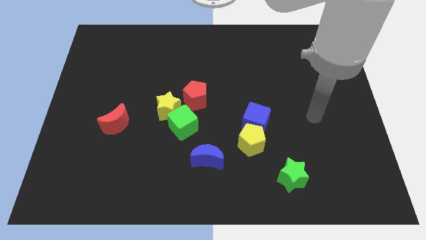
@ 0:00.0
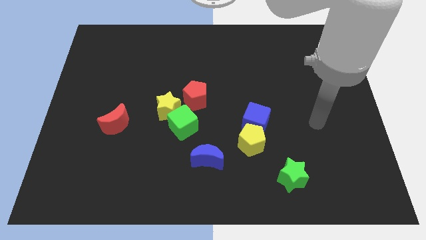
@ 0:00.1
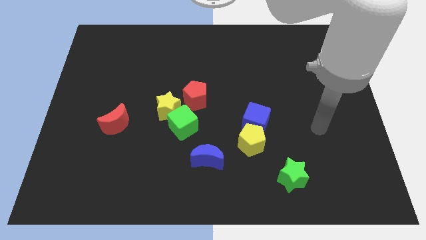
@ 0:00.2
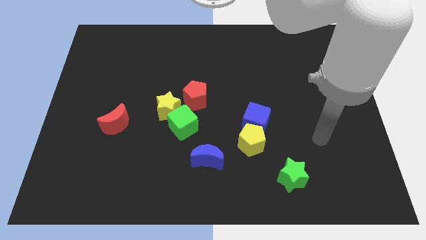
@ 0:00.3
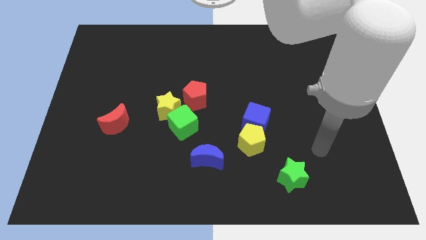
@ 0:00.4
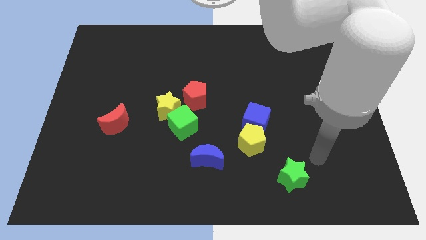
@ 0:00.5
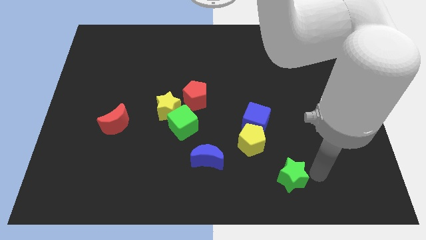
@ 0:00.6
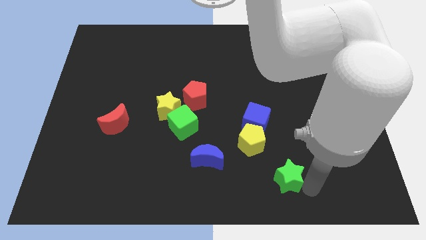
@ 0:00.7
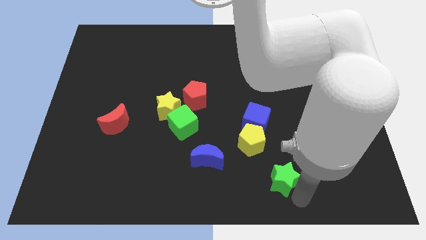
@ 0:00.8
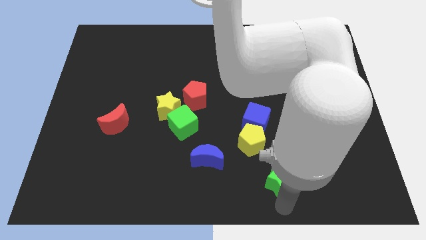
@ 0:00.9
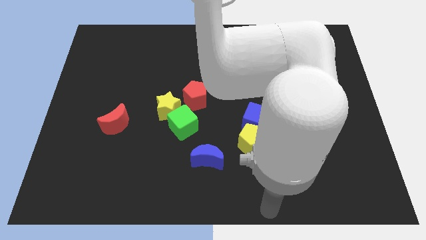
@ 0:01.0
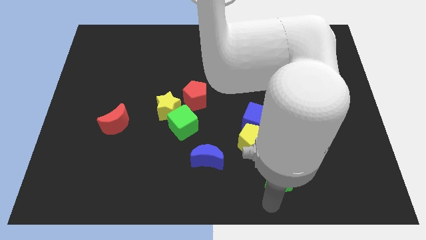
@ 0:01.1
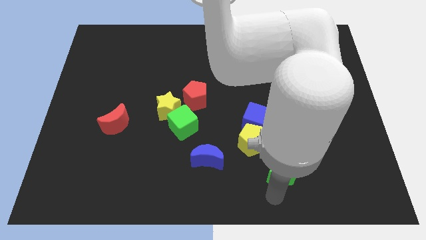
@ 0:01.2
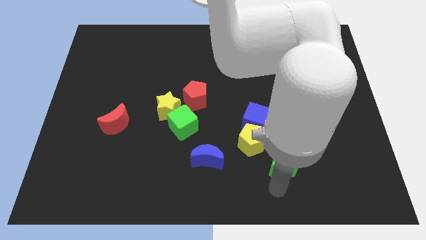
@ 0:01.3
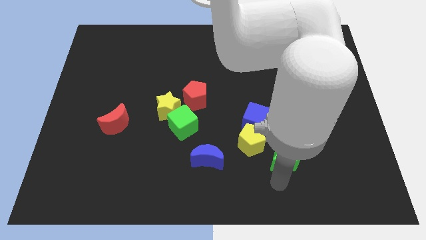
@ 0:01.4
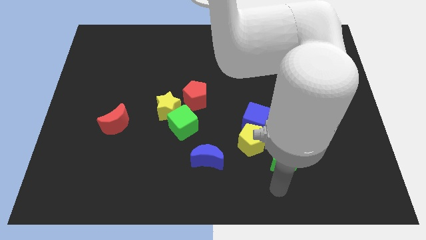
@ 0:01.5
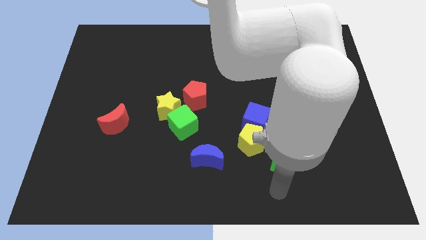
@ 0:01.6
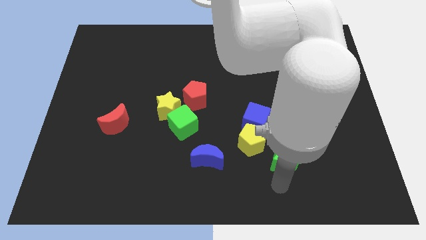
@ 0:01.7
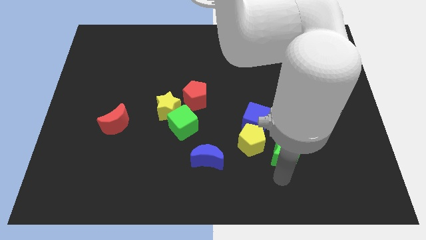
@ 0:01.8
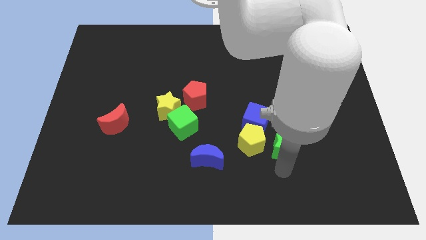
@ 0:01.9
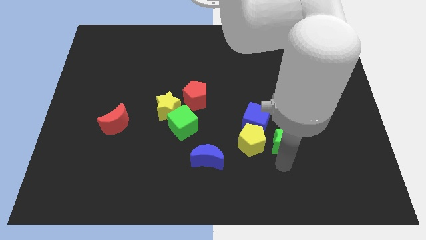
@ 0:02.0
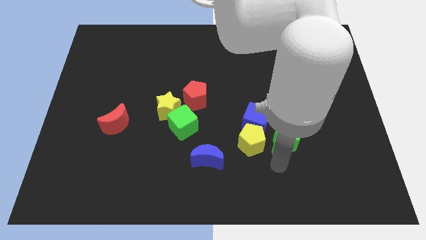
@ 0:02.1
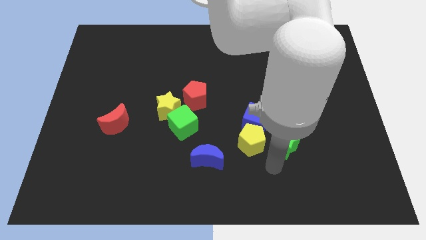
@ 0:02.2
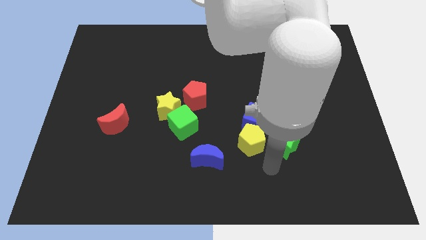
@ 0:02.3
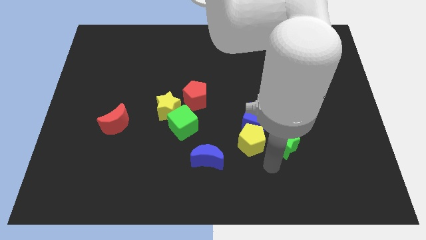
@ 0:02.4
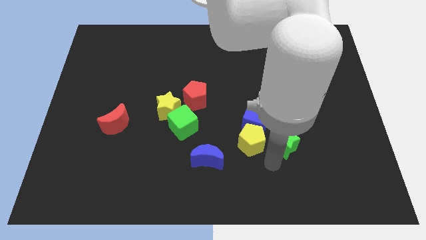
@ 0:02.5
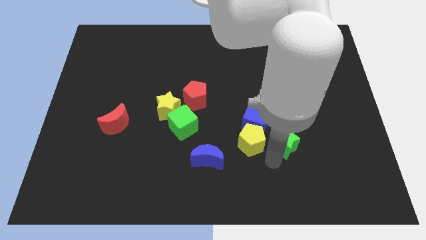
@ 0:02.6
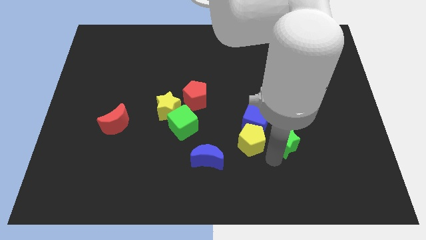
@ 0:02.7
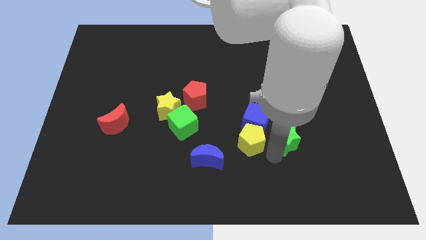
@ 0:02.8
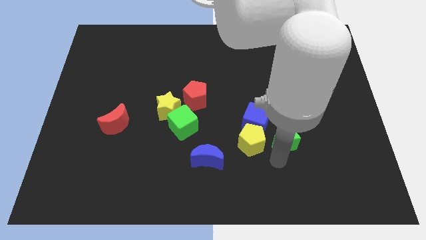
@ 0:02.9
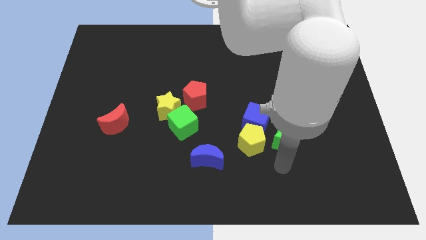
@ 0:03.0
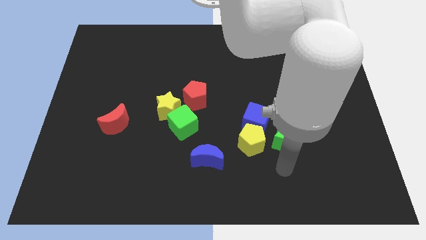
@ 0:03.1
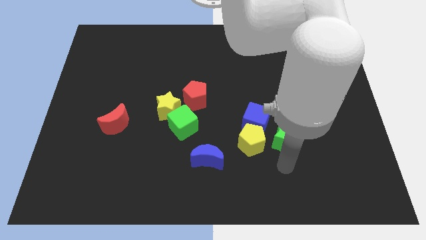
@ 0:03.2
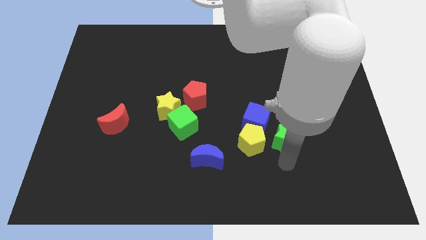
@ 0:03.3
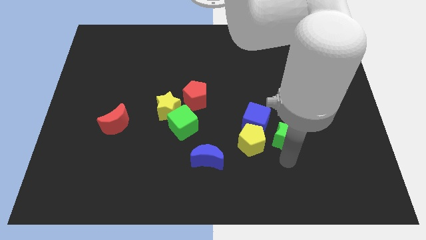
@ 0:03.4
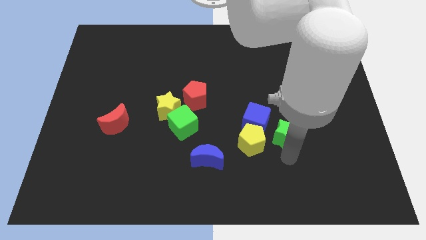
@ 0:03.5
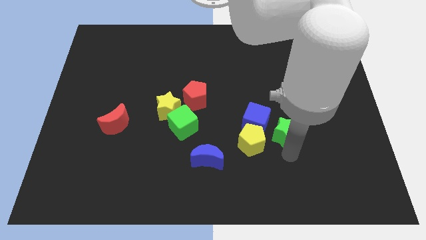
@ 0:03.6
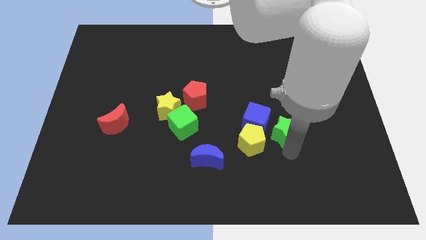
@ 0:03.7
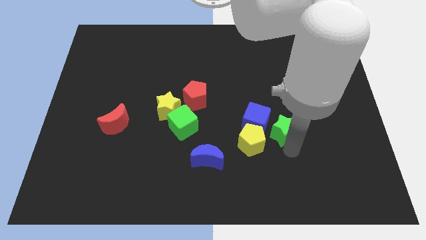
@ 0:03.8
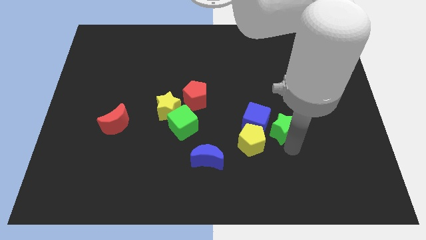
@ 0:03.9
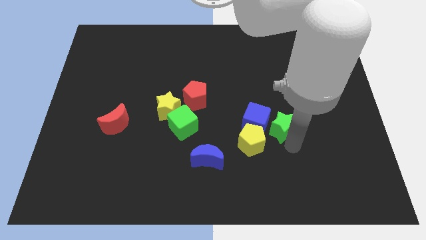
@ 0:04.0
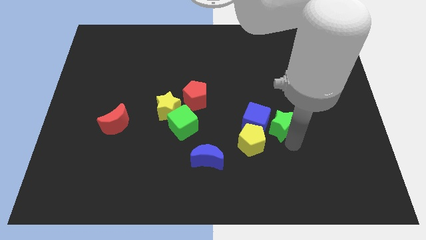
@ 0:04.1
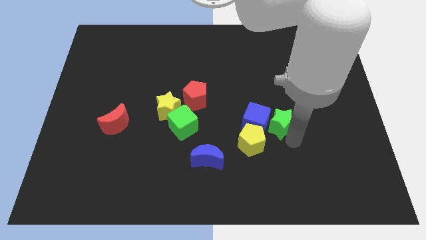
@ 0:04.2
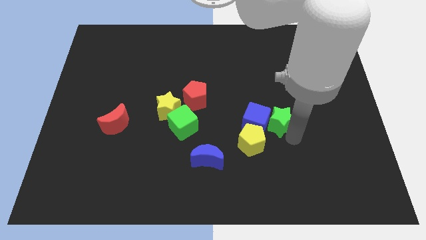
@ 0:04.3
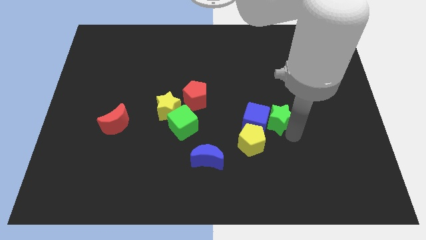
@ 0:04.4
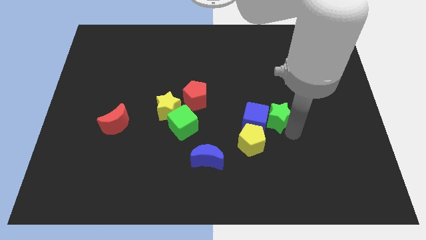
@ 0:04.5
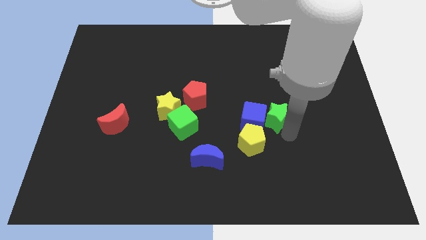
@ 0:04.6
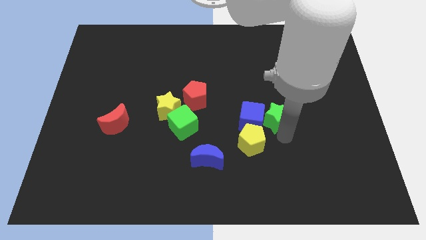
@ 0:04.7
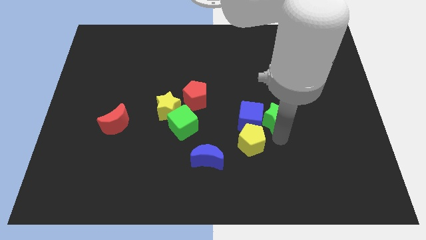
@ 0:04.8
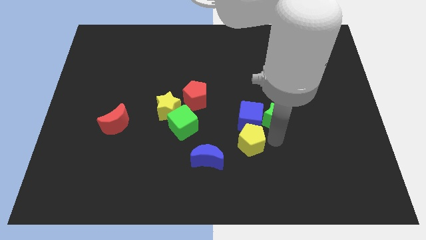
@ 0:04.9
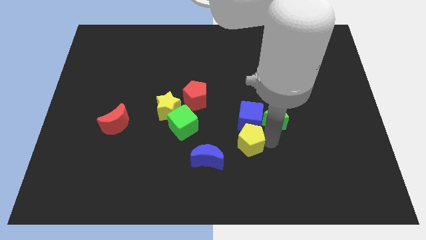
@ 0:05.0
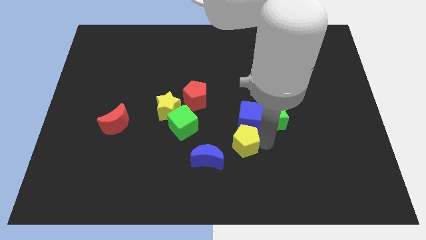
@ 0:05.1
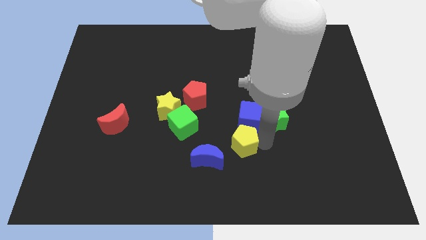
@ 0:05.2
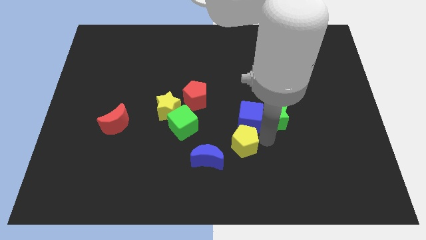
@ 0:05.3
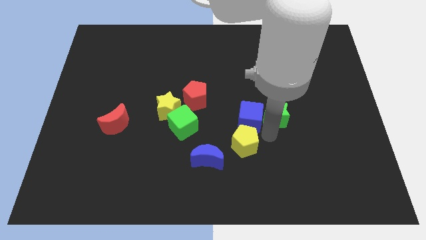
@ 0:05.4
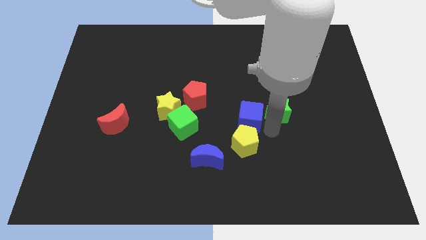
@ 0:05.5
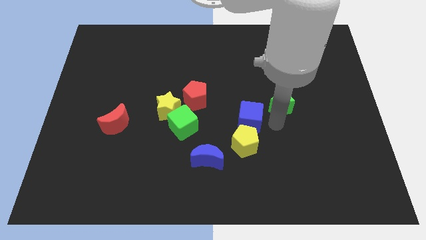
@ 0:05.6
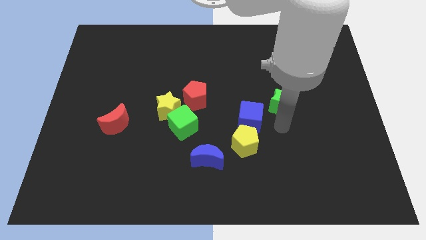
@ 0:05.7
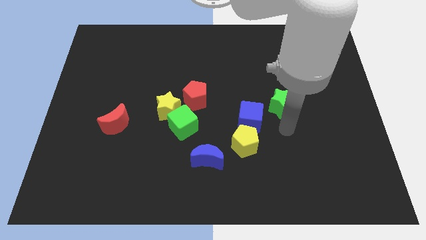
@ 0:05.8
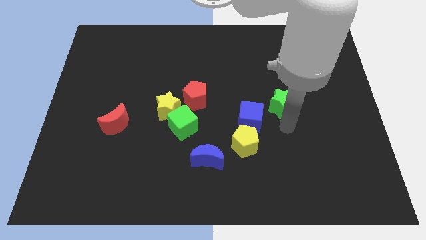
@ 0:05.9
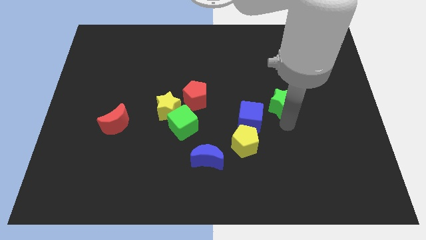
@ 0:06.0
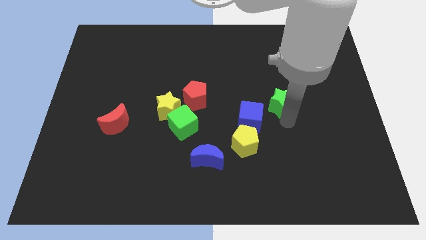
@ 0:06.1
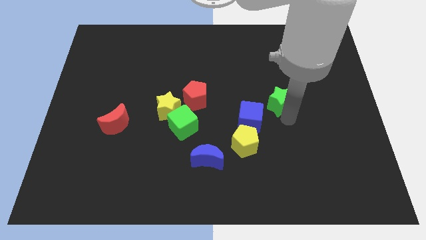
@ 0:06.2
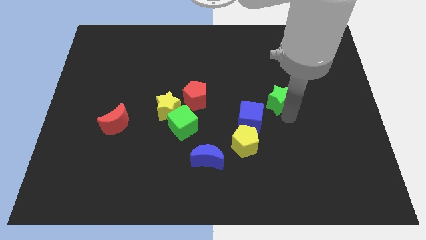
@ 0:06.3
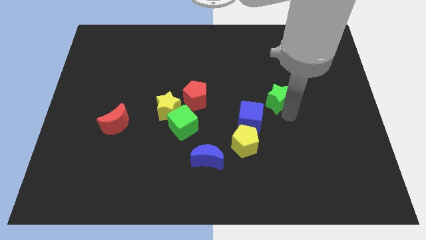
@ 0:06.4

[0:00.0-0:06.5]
push the green star upwards

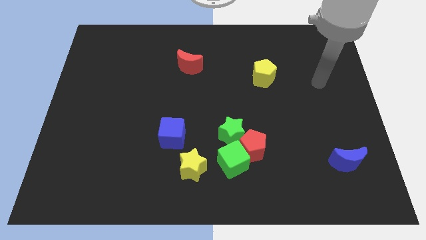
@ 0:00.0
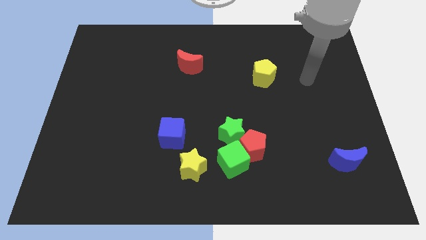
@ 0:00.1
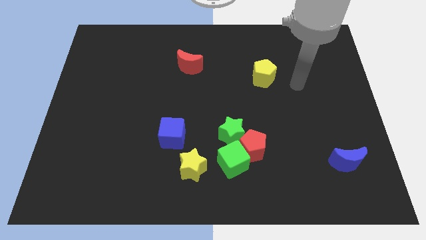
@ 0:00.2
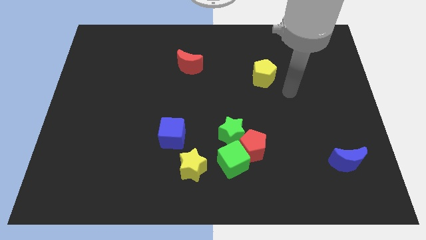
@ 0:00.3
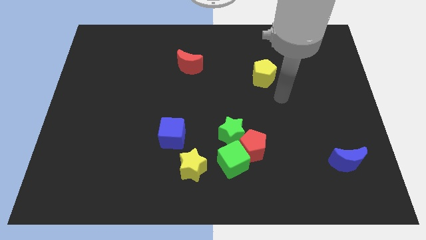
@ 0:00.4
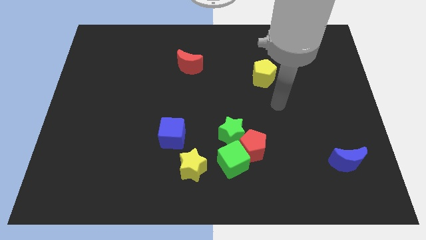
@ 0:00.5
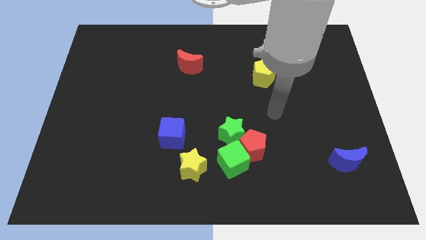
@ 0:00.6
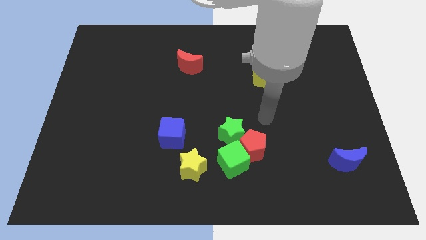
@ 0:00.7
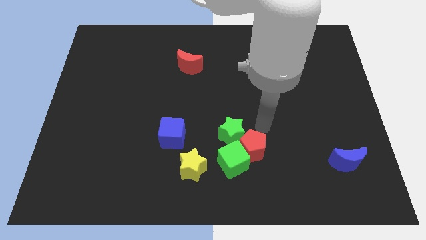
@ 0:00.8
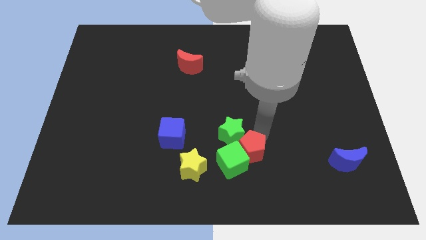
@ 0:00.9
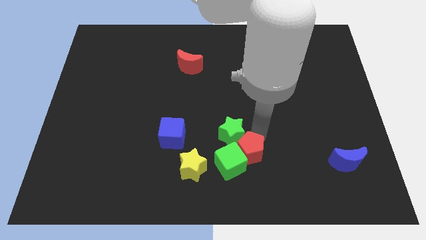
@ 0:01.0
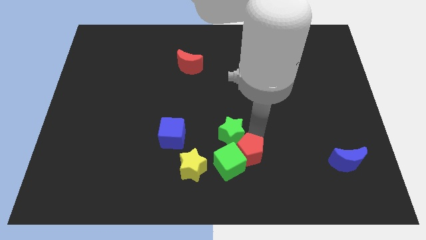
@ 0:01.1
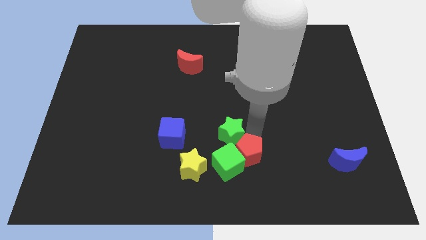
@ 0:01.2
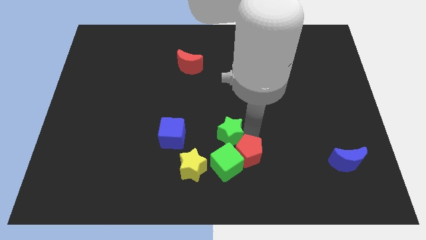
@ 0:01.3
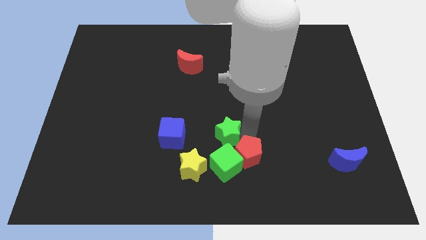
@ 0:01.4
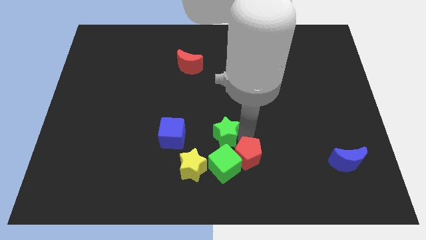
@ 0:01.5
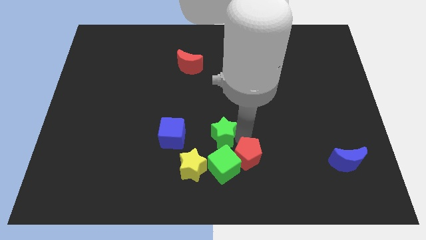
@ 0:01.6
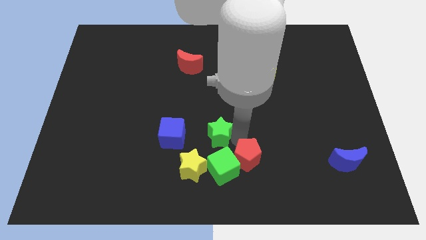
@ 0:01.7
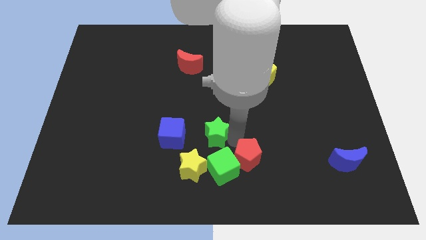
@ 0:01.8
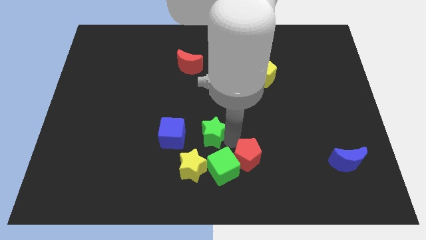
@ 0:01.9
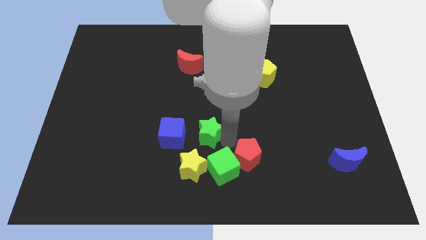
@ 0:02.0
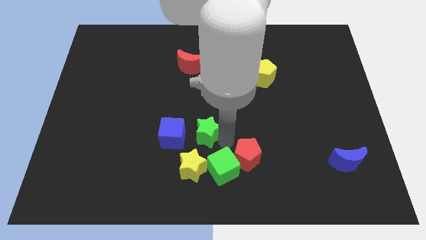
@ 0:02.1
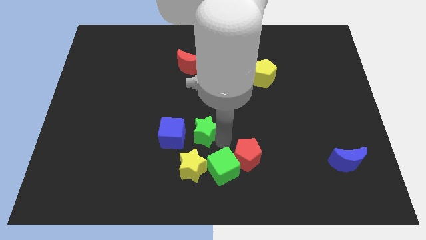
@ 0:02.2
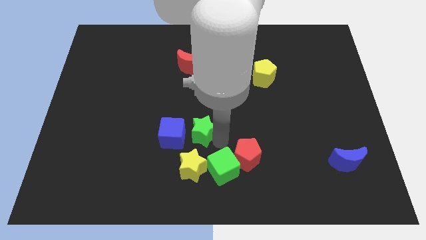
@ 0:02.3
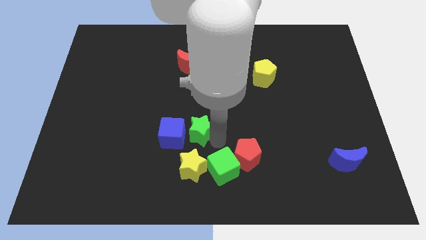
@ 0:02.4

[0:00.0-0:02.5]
slightly slide the green star left
